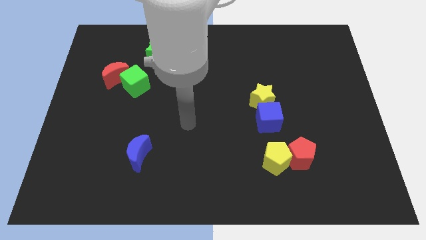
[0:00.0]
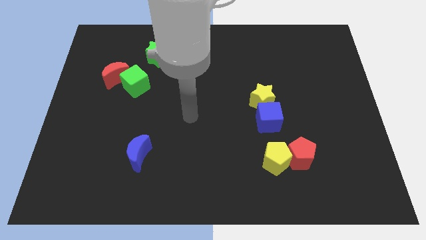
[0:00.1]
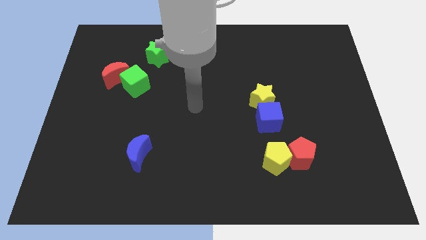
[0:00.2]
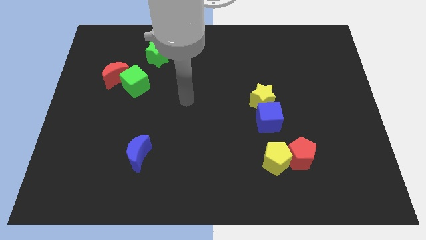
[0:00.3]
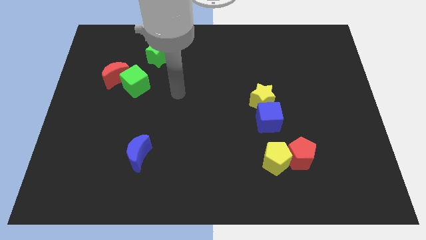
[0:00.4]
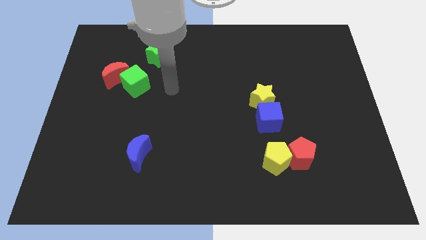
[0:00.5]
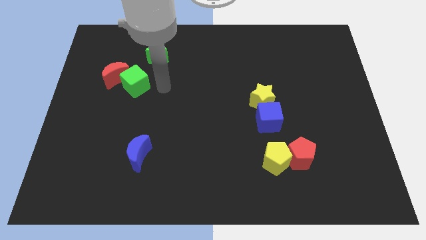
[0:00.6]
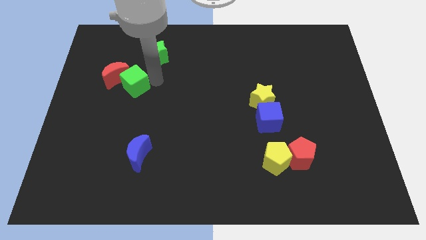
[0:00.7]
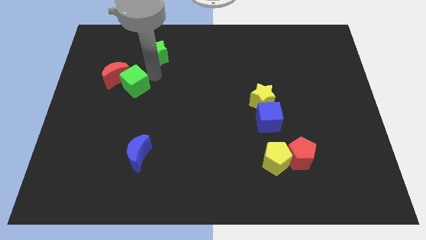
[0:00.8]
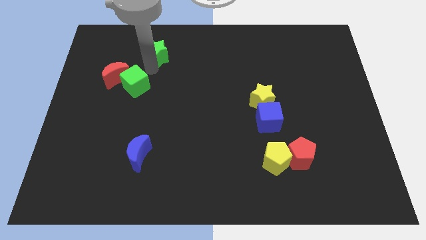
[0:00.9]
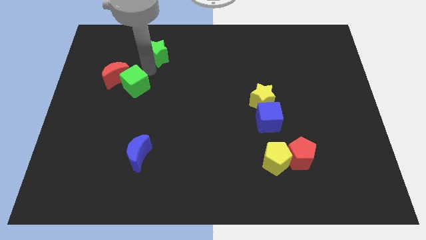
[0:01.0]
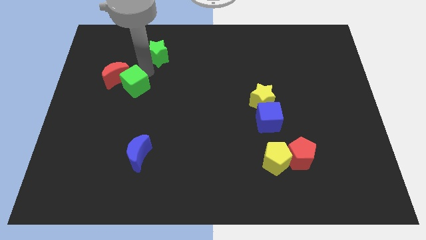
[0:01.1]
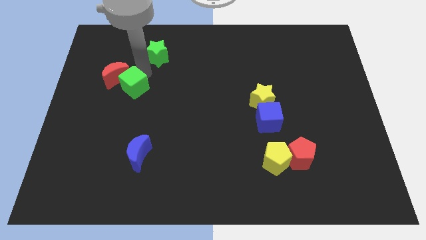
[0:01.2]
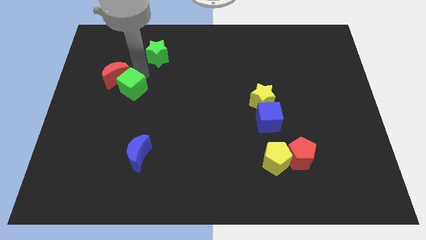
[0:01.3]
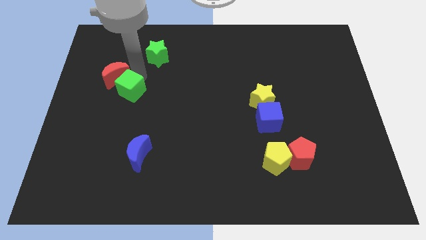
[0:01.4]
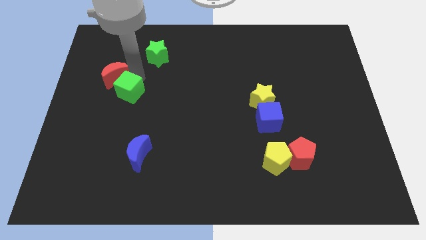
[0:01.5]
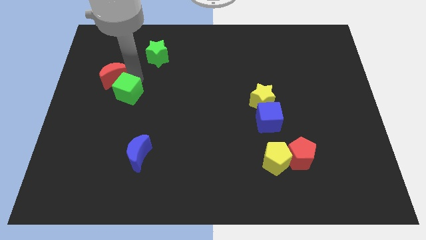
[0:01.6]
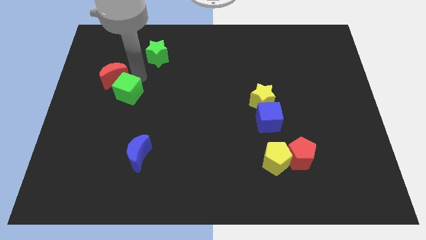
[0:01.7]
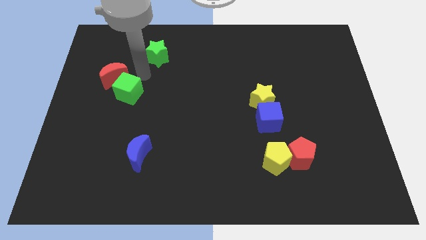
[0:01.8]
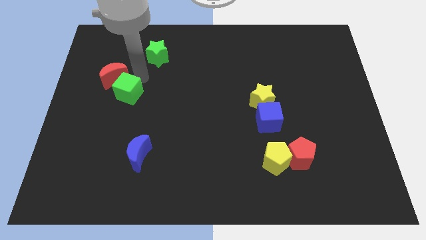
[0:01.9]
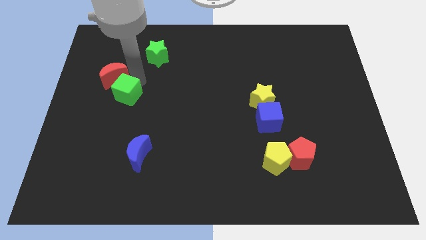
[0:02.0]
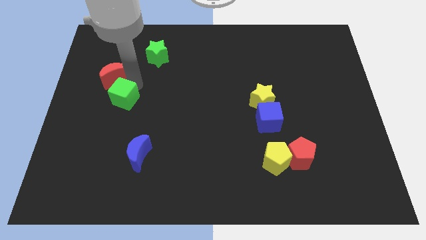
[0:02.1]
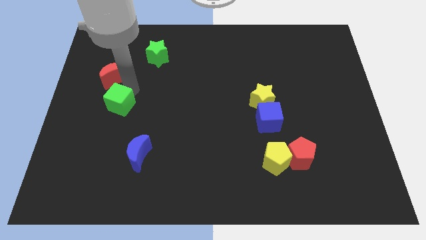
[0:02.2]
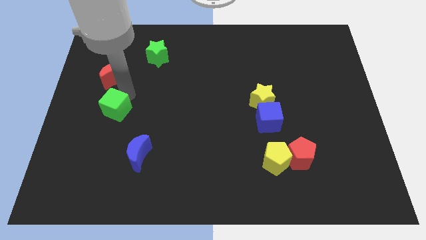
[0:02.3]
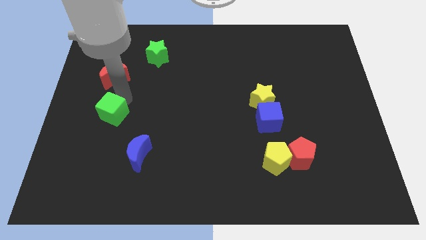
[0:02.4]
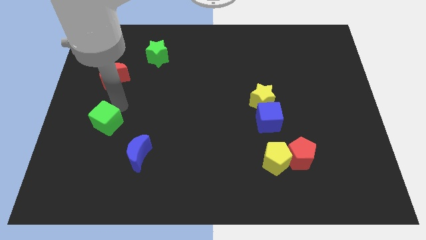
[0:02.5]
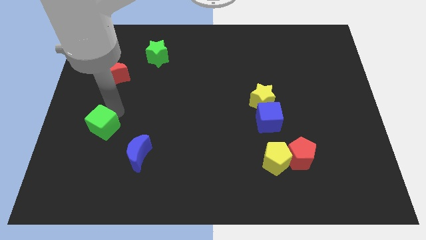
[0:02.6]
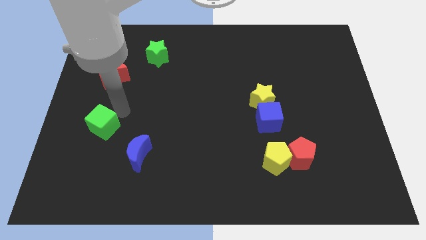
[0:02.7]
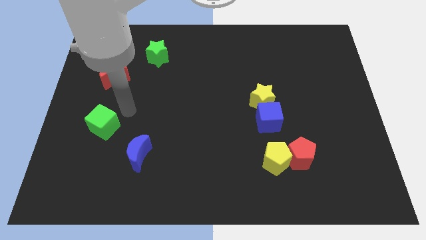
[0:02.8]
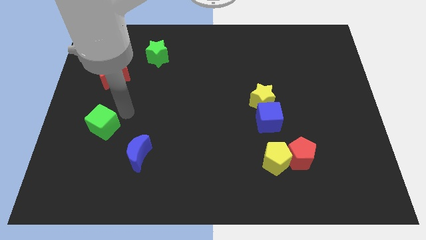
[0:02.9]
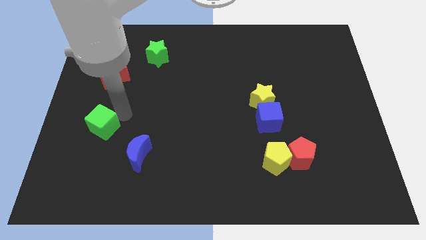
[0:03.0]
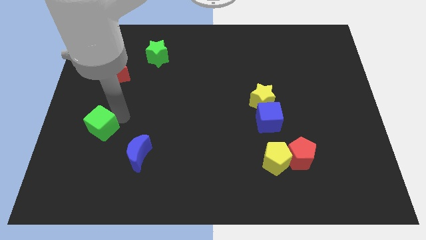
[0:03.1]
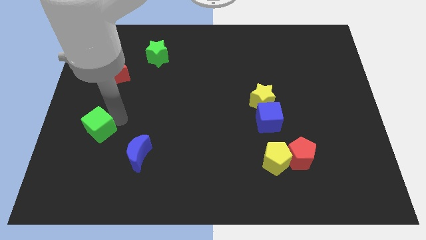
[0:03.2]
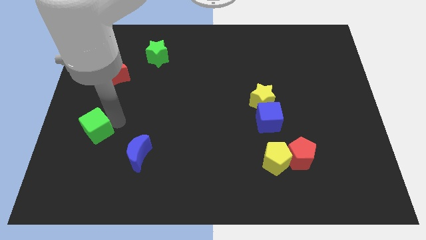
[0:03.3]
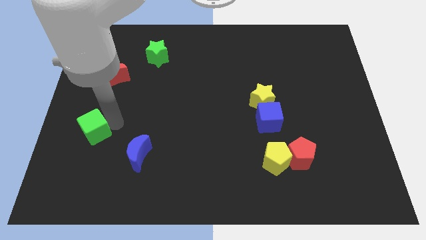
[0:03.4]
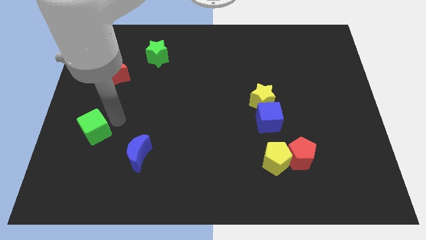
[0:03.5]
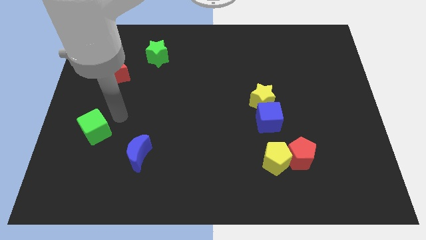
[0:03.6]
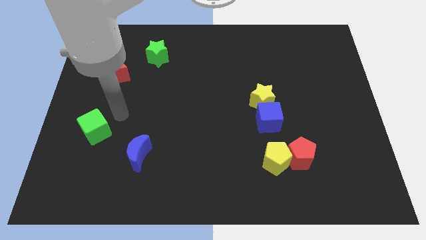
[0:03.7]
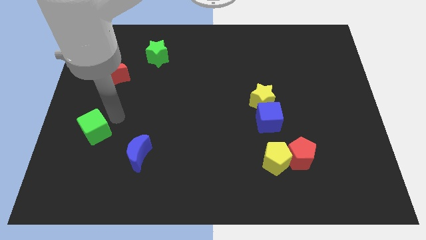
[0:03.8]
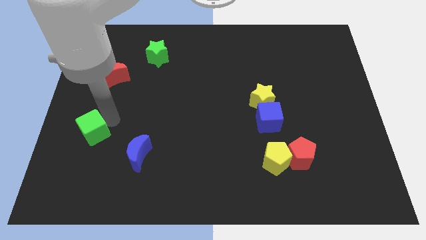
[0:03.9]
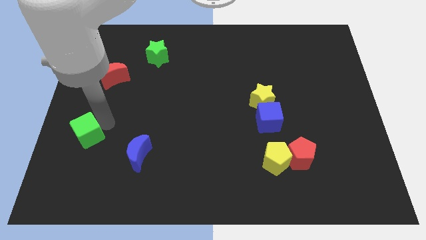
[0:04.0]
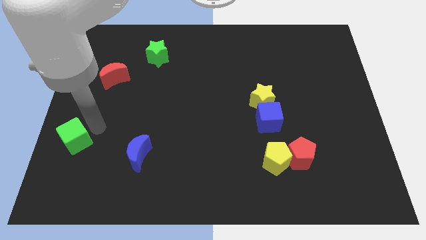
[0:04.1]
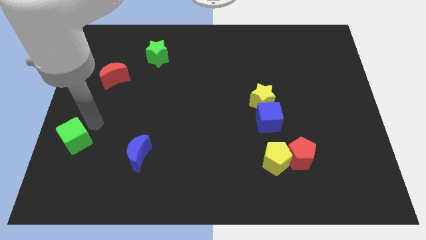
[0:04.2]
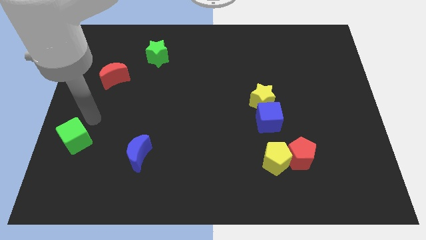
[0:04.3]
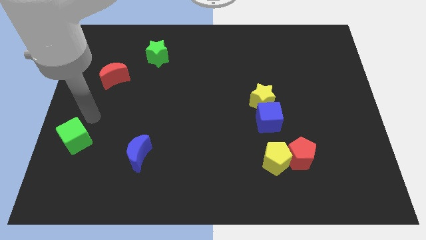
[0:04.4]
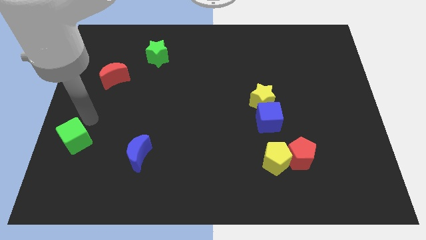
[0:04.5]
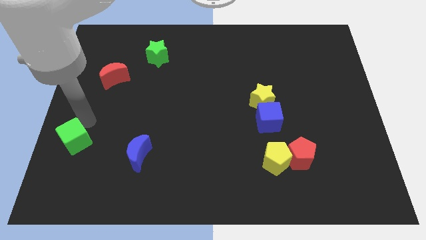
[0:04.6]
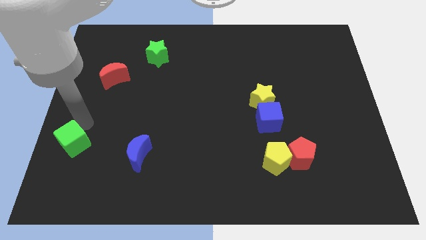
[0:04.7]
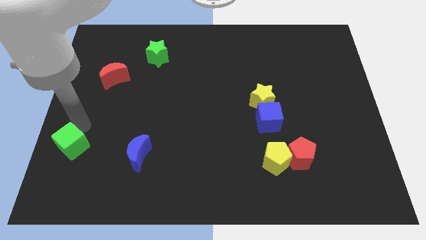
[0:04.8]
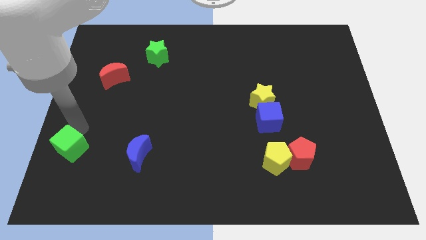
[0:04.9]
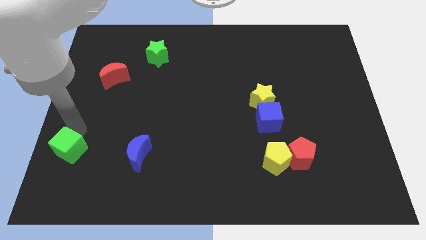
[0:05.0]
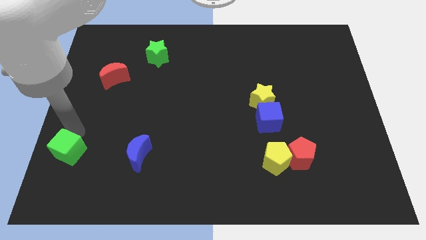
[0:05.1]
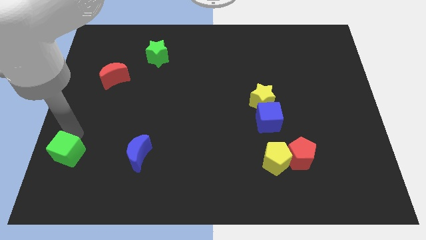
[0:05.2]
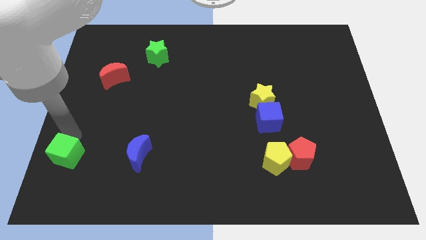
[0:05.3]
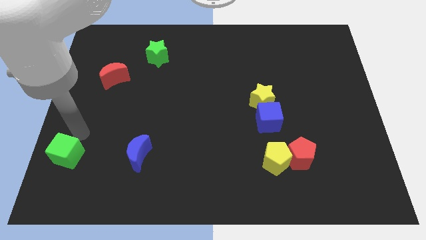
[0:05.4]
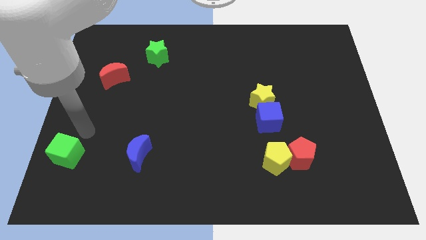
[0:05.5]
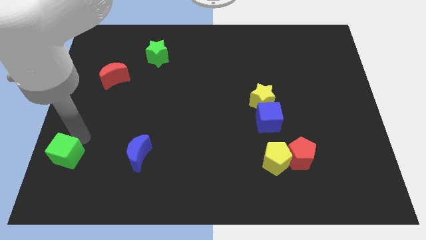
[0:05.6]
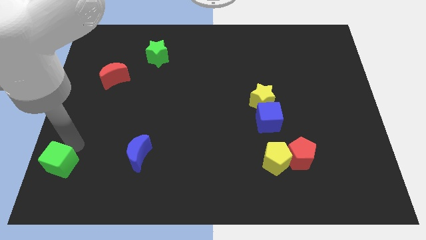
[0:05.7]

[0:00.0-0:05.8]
move the green cube to the lower left corner

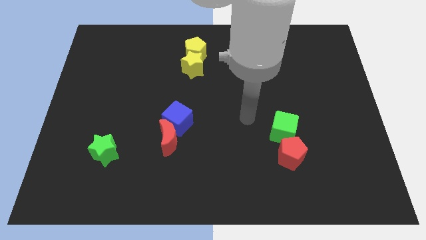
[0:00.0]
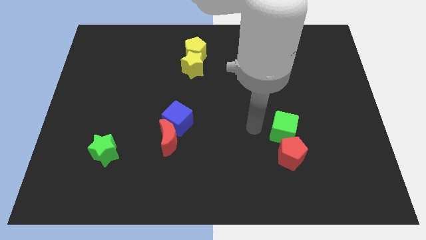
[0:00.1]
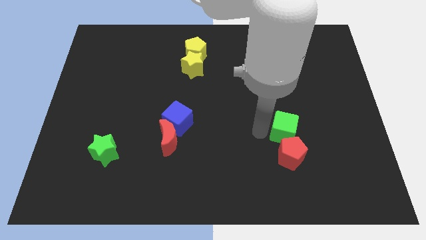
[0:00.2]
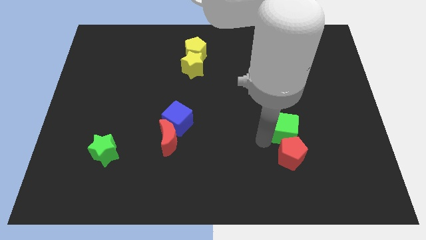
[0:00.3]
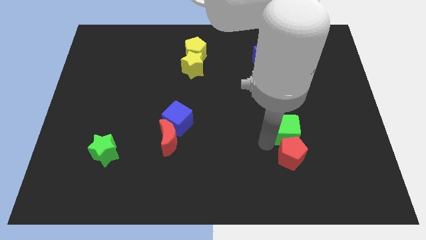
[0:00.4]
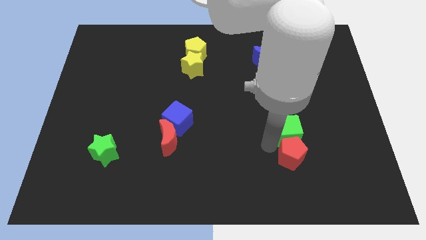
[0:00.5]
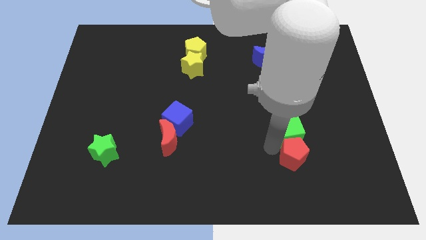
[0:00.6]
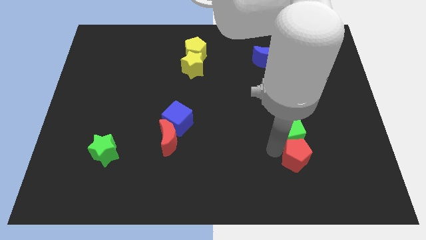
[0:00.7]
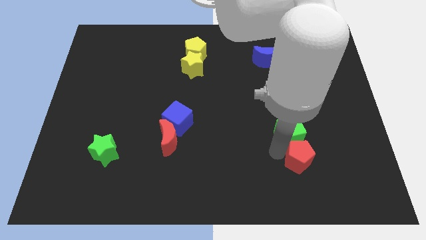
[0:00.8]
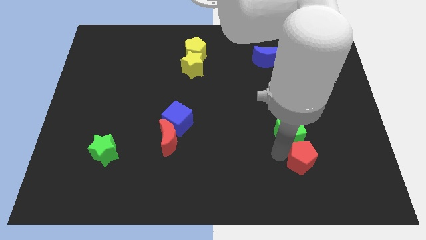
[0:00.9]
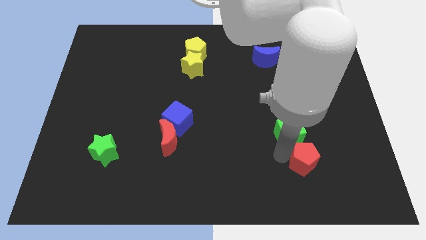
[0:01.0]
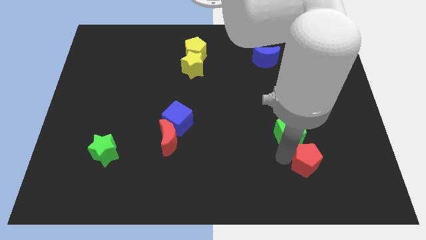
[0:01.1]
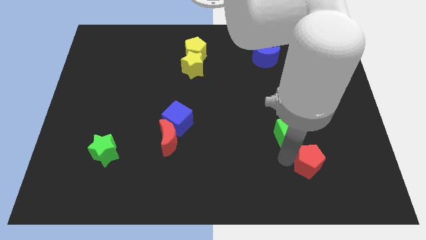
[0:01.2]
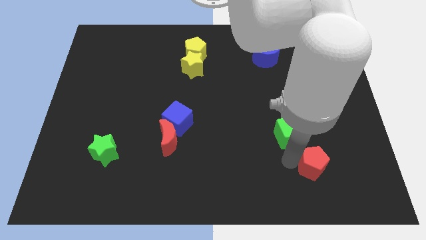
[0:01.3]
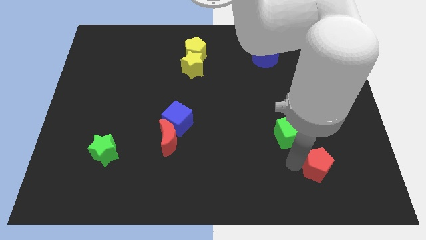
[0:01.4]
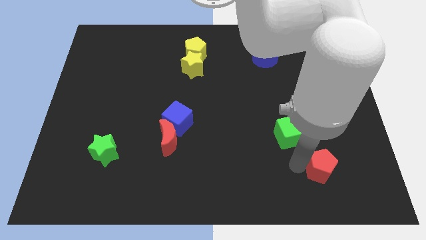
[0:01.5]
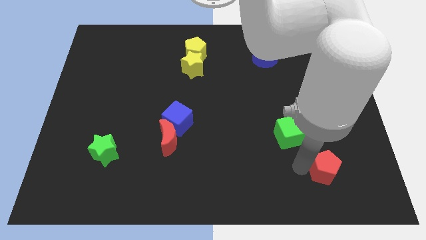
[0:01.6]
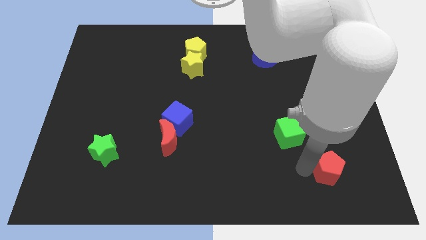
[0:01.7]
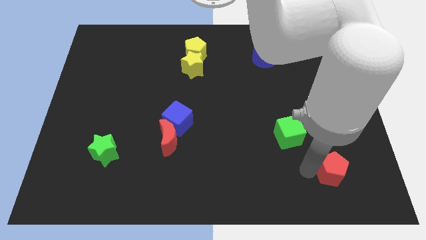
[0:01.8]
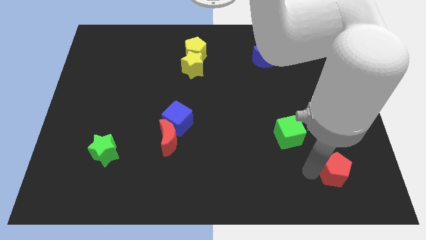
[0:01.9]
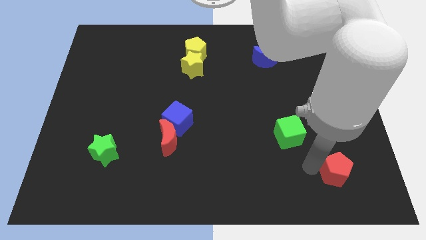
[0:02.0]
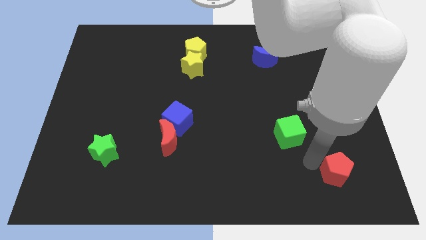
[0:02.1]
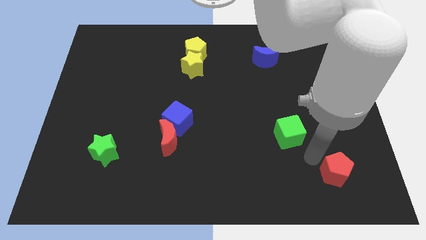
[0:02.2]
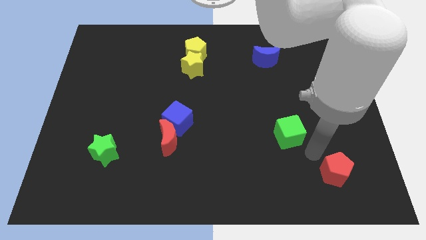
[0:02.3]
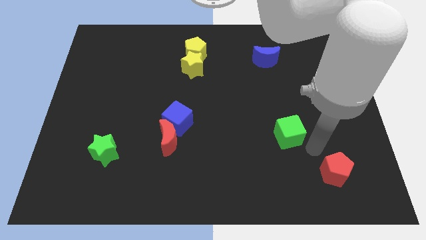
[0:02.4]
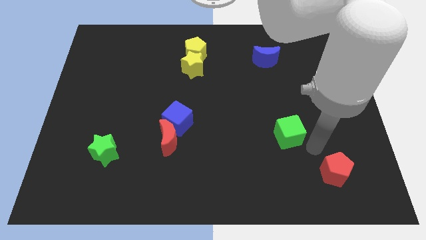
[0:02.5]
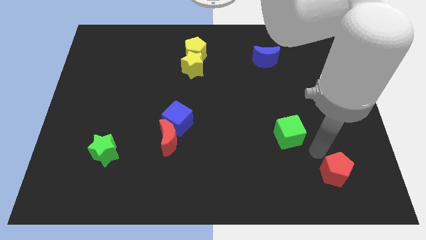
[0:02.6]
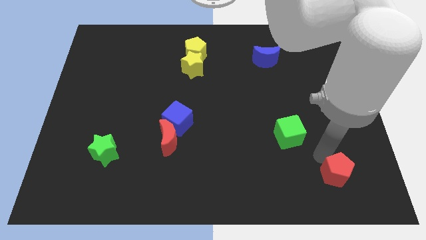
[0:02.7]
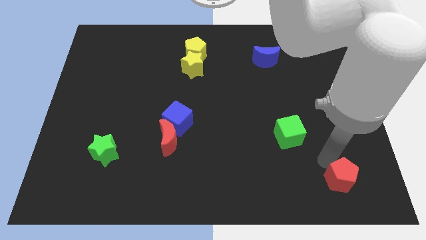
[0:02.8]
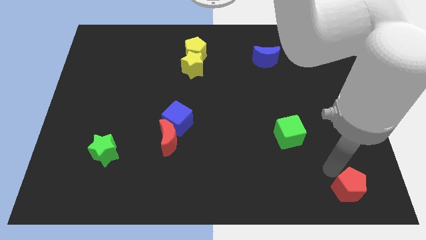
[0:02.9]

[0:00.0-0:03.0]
put the red pentagon to the bottom right
